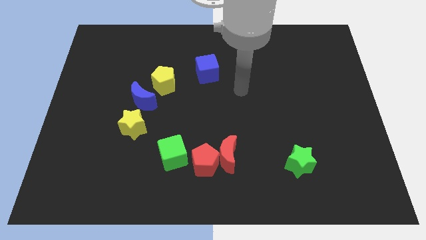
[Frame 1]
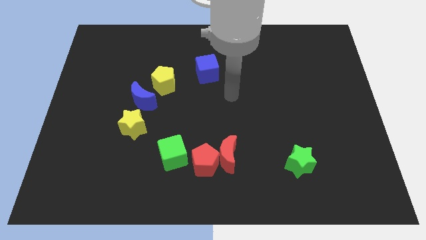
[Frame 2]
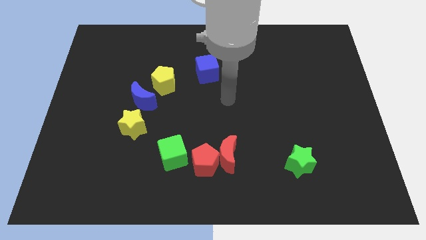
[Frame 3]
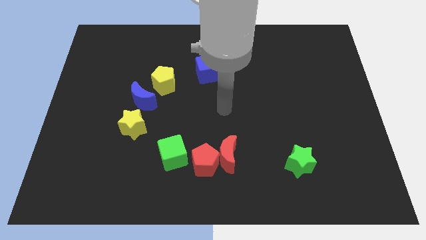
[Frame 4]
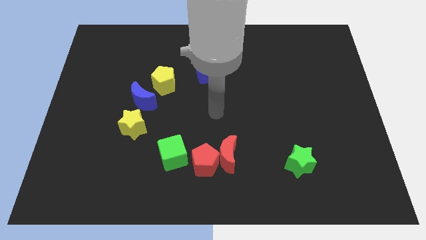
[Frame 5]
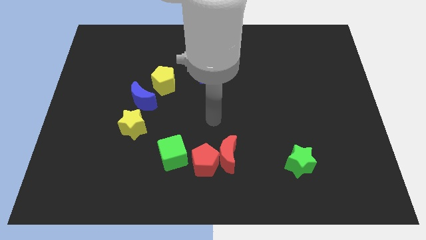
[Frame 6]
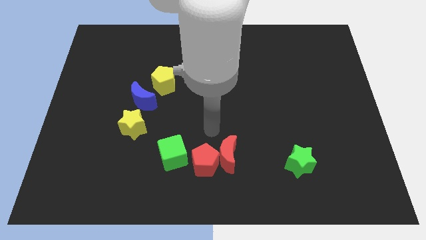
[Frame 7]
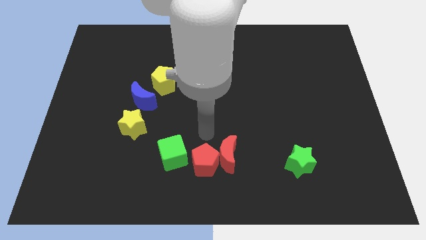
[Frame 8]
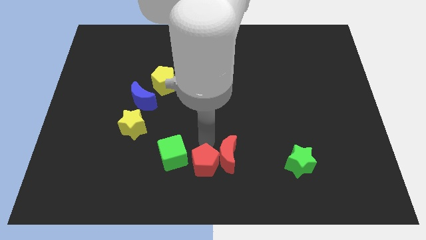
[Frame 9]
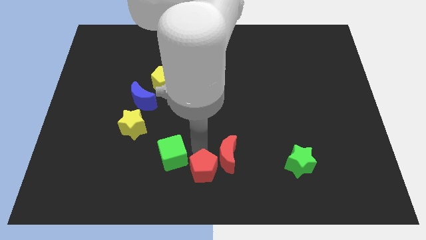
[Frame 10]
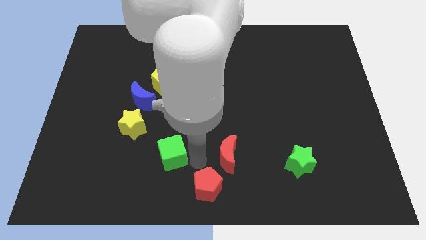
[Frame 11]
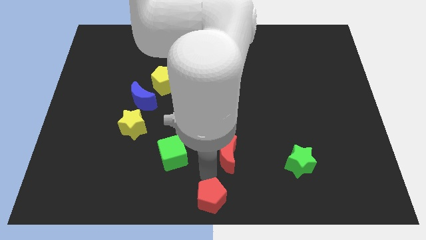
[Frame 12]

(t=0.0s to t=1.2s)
pull the red moon apart from the red pentagon

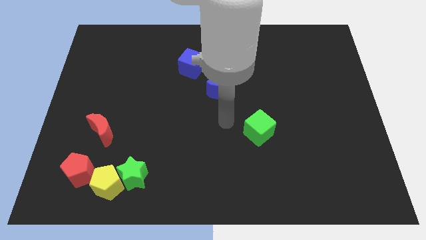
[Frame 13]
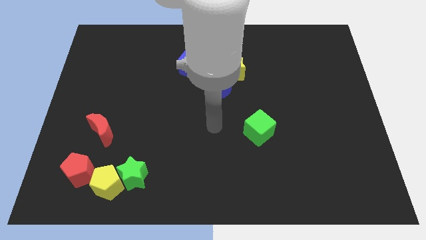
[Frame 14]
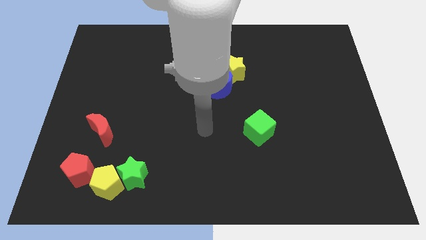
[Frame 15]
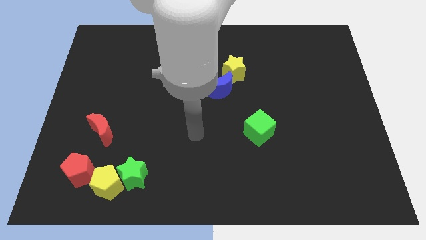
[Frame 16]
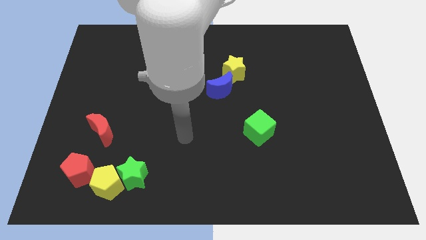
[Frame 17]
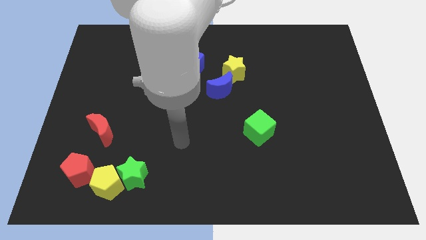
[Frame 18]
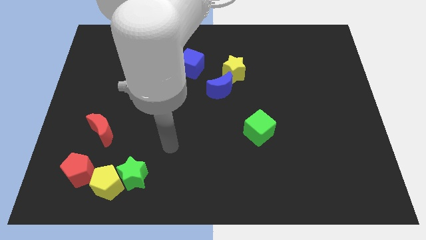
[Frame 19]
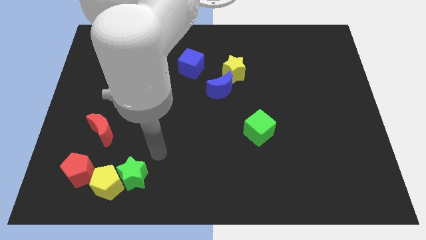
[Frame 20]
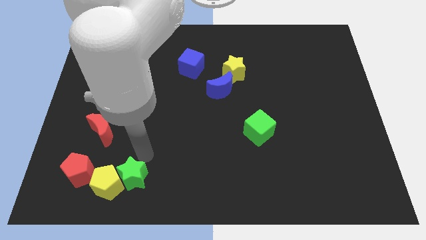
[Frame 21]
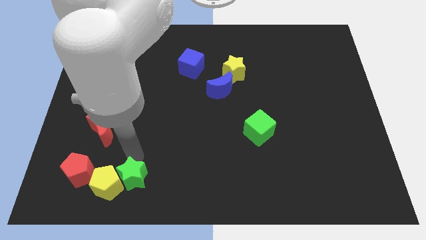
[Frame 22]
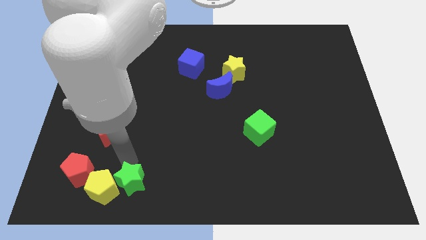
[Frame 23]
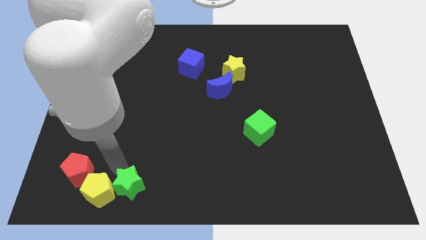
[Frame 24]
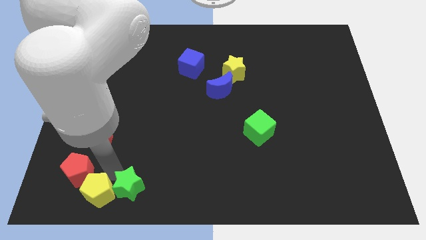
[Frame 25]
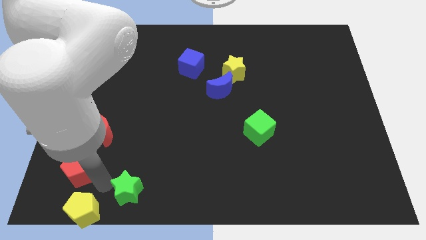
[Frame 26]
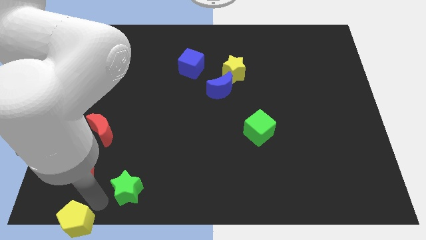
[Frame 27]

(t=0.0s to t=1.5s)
pull the green star apart from the yellow pentagon

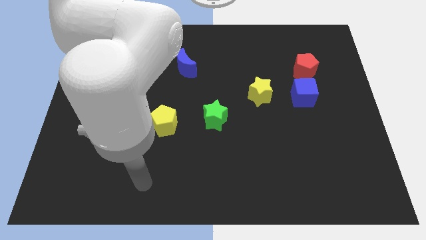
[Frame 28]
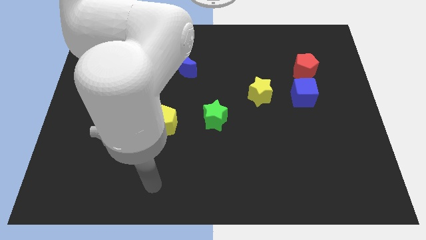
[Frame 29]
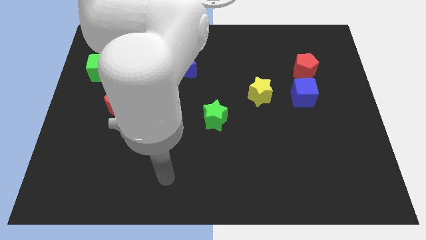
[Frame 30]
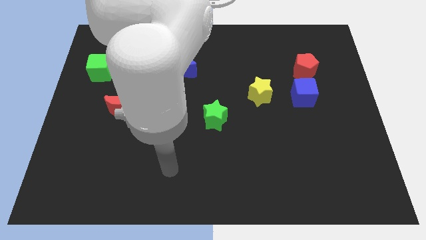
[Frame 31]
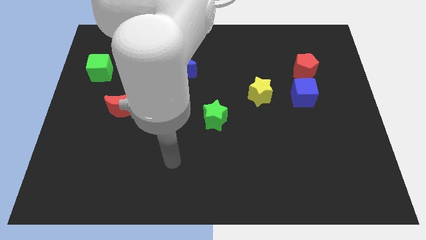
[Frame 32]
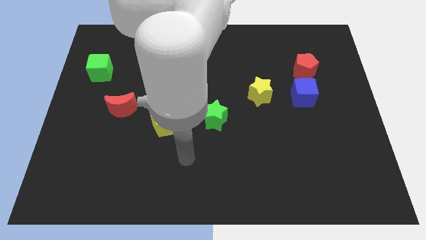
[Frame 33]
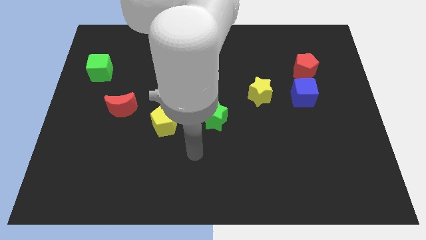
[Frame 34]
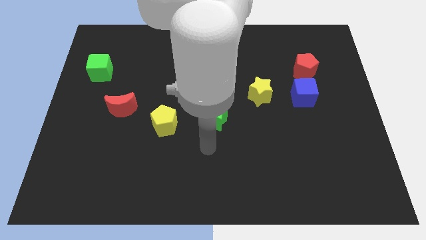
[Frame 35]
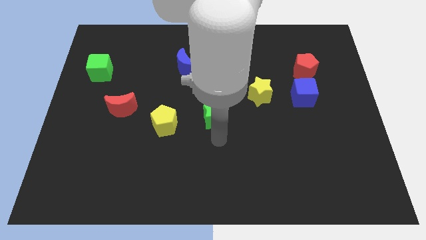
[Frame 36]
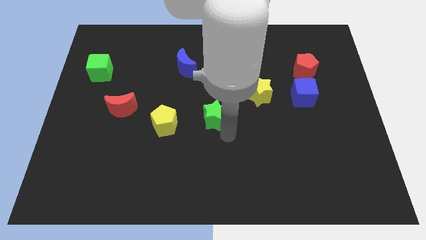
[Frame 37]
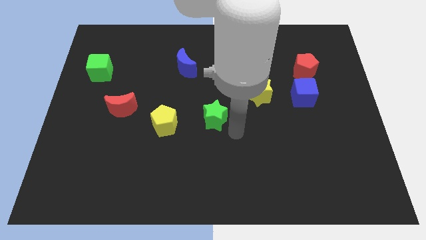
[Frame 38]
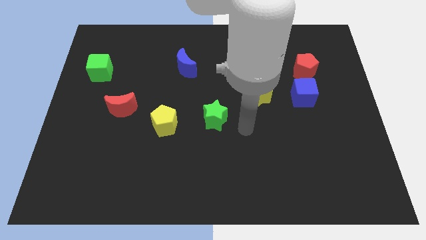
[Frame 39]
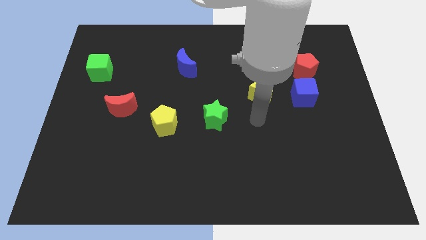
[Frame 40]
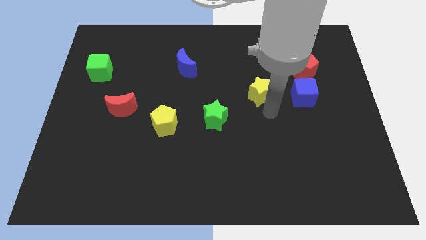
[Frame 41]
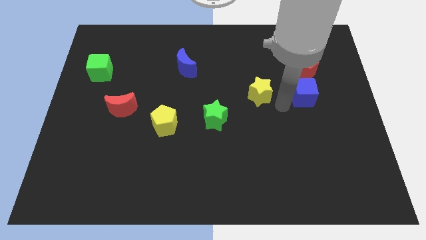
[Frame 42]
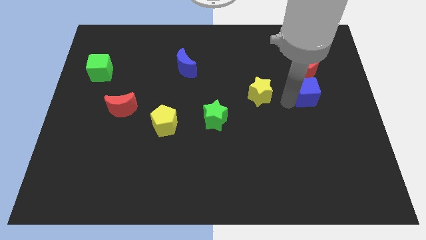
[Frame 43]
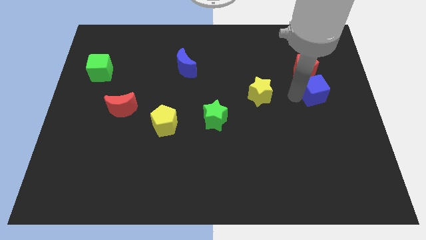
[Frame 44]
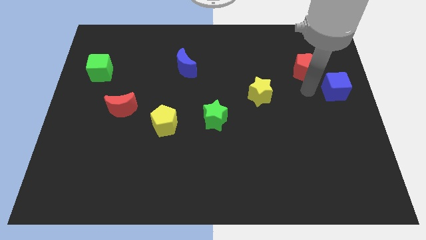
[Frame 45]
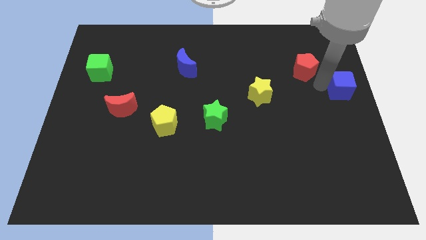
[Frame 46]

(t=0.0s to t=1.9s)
pull the red pentagon apart from the blue cube

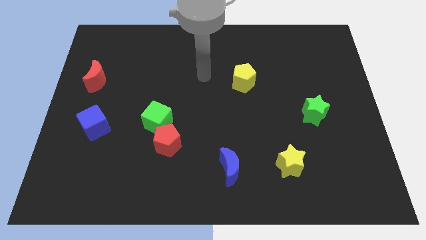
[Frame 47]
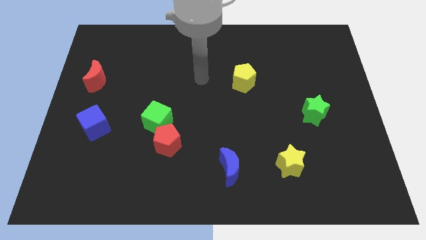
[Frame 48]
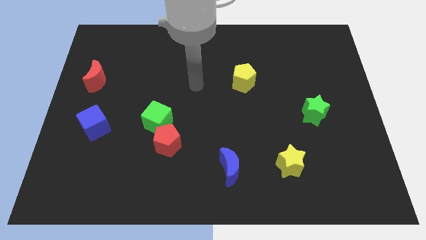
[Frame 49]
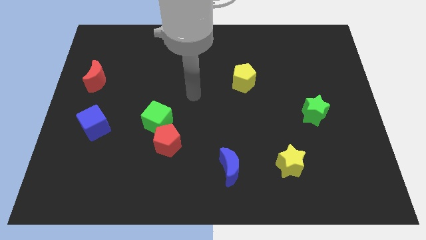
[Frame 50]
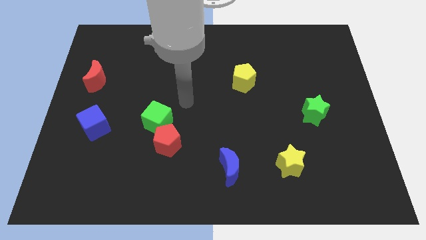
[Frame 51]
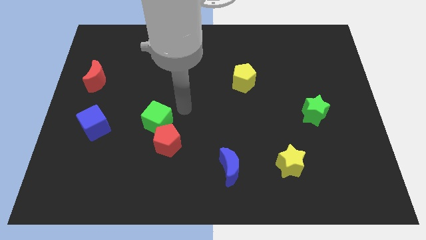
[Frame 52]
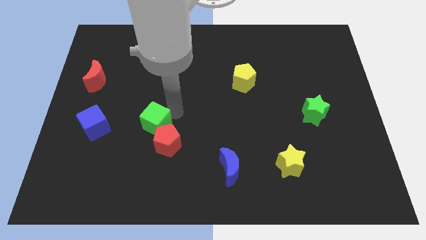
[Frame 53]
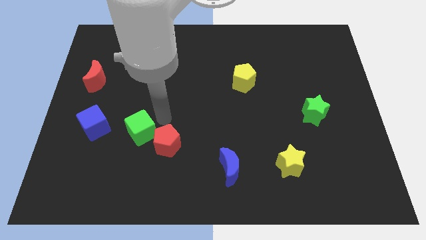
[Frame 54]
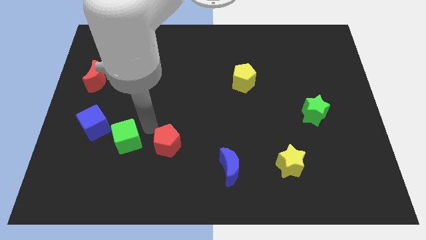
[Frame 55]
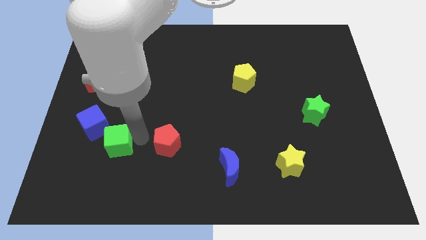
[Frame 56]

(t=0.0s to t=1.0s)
pull the red pentagon apart from the green cube

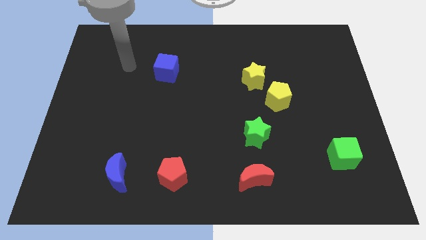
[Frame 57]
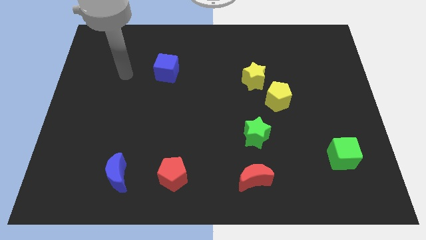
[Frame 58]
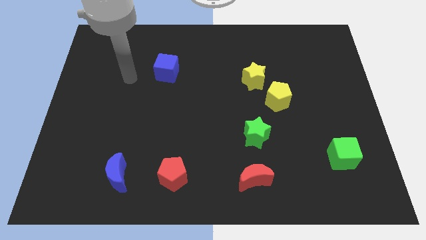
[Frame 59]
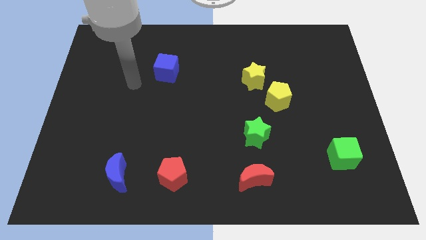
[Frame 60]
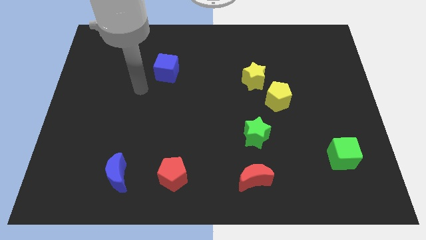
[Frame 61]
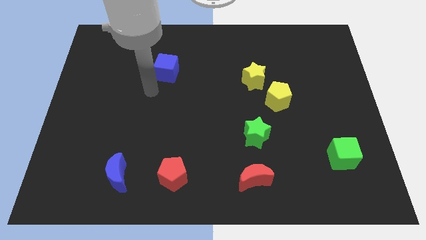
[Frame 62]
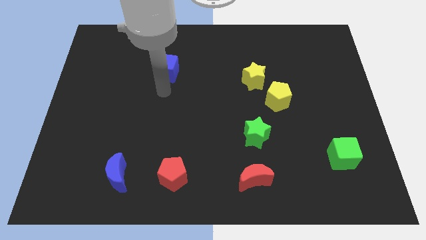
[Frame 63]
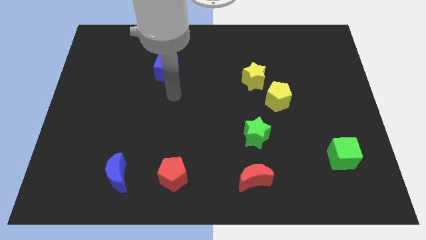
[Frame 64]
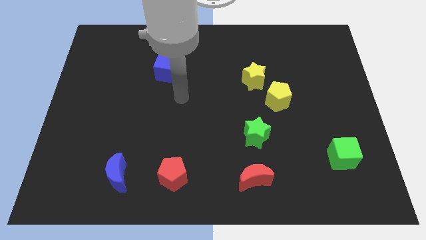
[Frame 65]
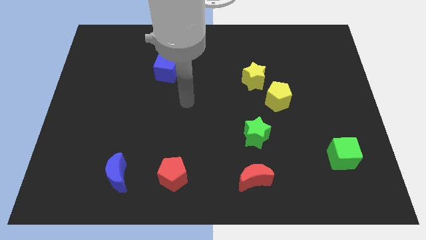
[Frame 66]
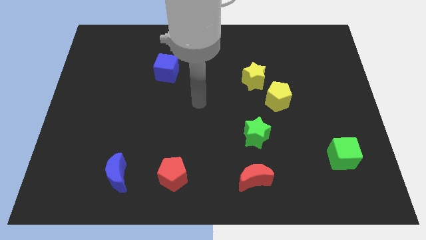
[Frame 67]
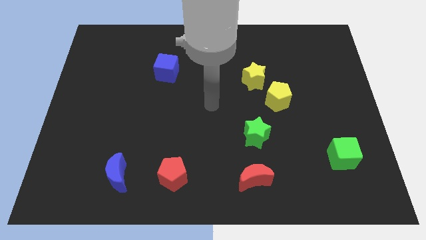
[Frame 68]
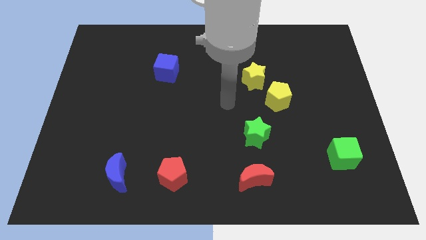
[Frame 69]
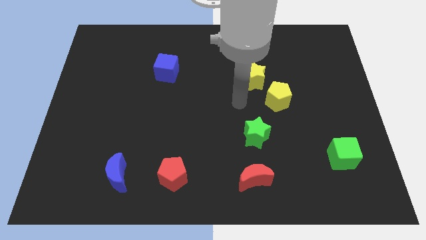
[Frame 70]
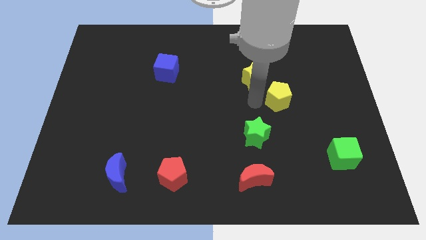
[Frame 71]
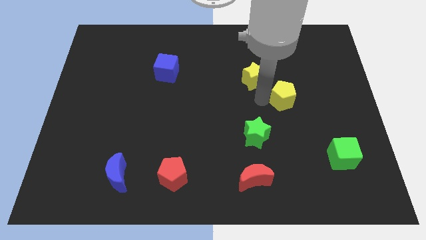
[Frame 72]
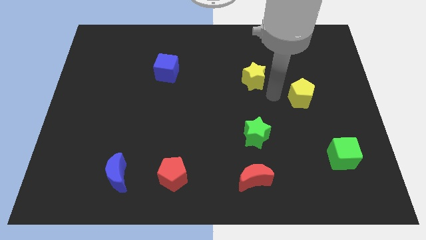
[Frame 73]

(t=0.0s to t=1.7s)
pull the yellow star apart from the yellow pentagon

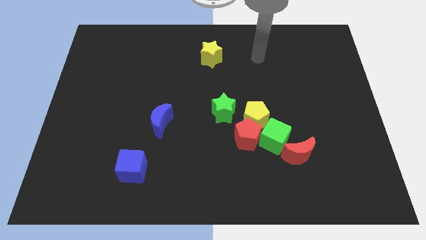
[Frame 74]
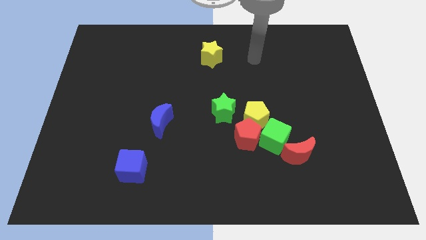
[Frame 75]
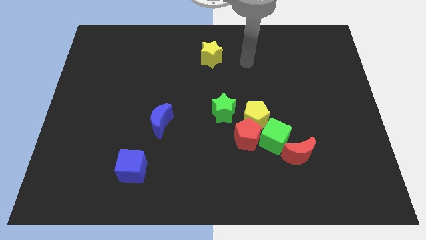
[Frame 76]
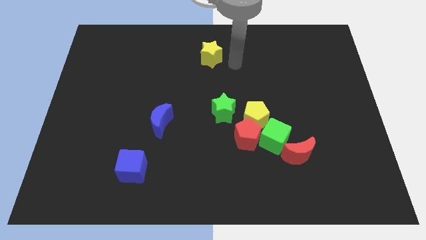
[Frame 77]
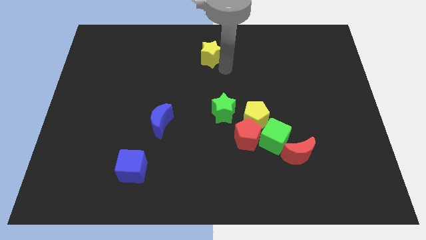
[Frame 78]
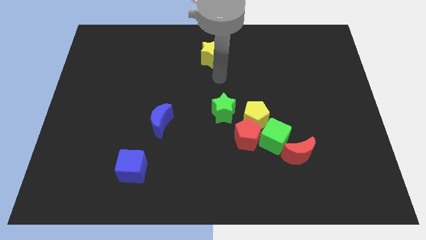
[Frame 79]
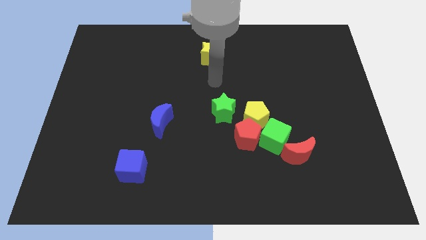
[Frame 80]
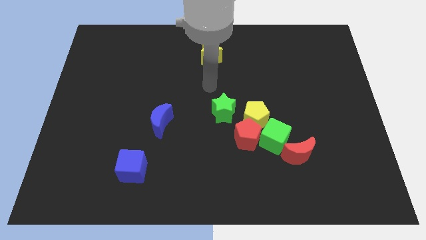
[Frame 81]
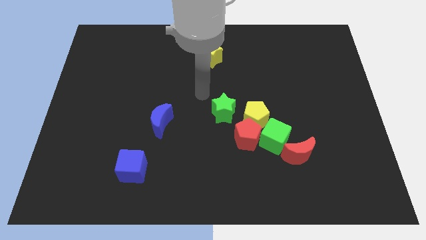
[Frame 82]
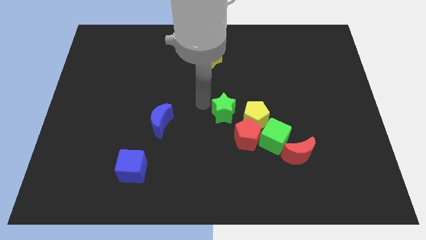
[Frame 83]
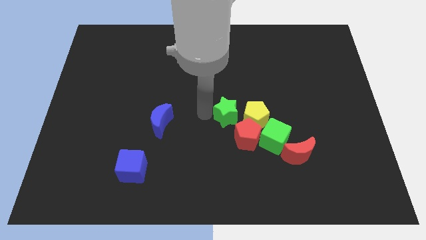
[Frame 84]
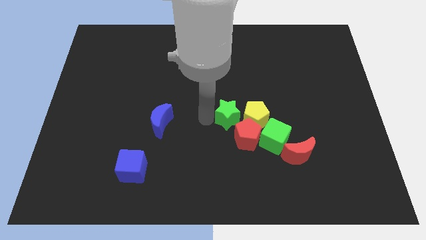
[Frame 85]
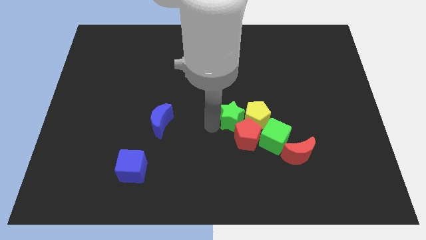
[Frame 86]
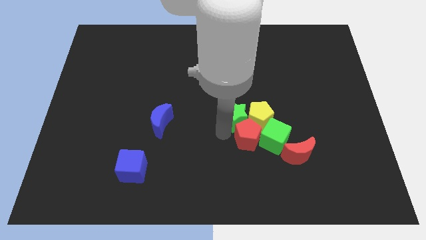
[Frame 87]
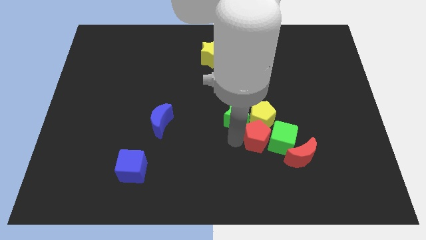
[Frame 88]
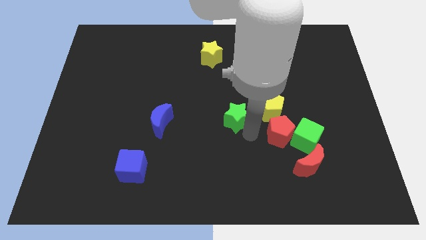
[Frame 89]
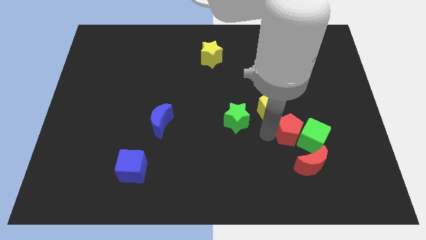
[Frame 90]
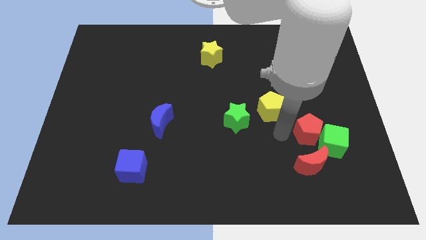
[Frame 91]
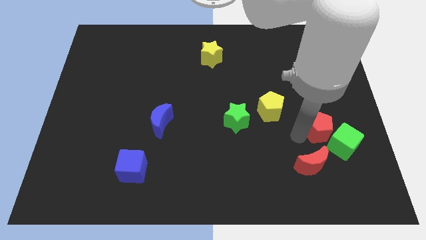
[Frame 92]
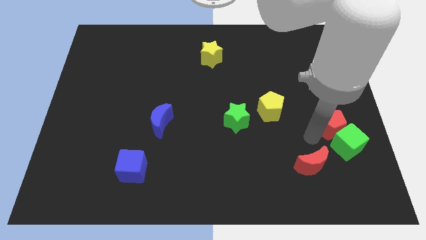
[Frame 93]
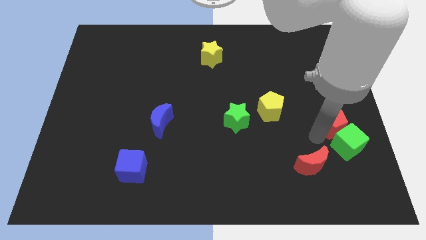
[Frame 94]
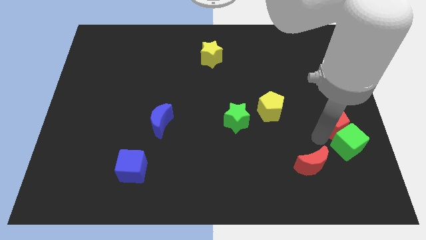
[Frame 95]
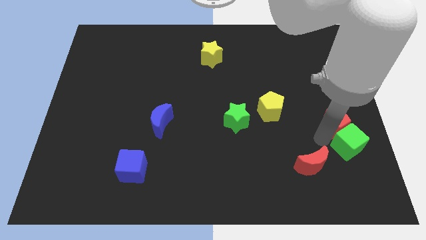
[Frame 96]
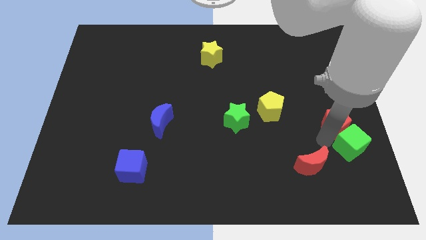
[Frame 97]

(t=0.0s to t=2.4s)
move the green cube away from the clump
